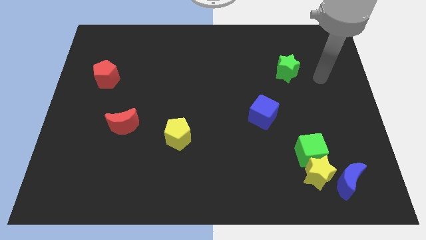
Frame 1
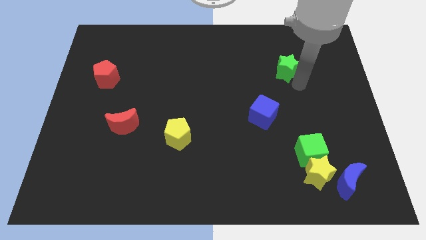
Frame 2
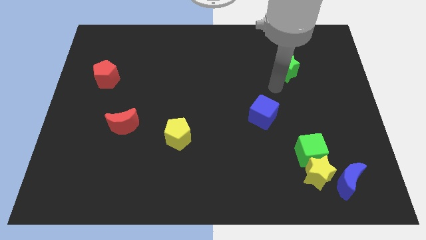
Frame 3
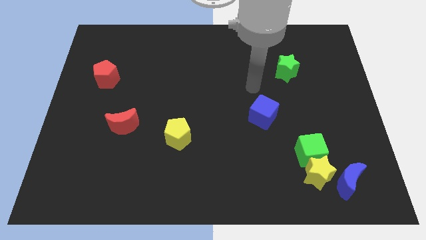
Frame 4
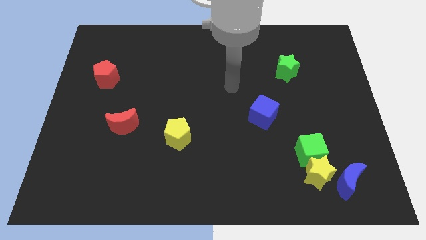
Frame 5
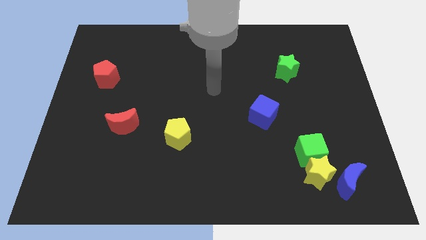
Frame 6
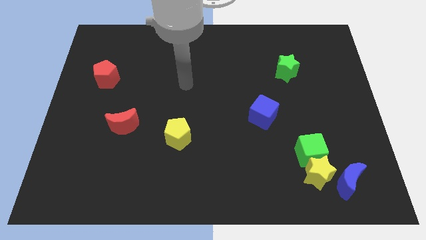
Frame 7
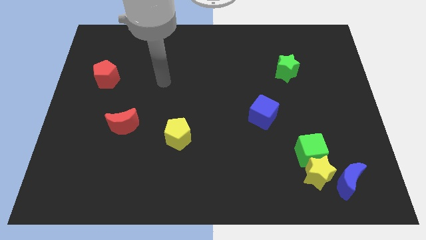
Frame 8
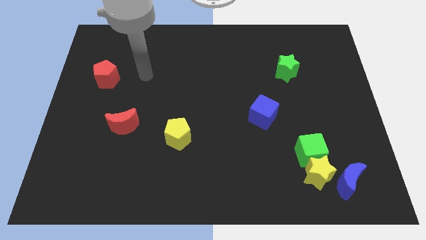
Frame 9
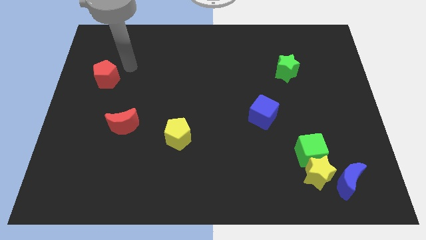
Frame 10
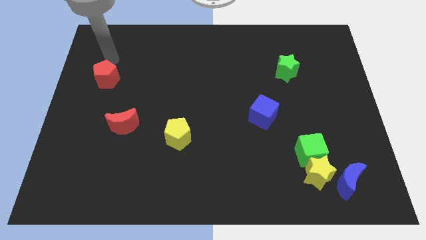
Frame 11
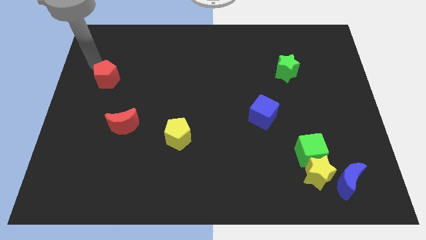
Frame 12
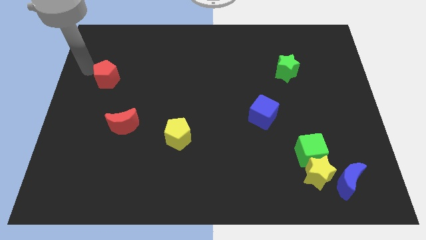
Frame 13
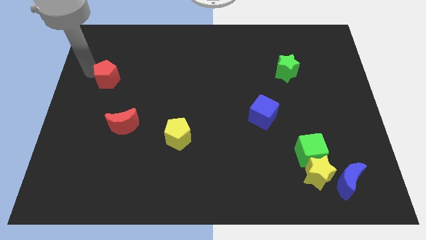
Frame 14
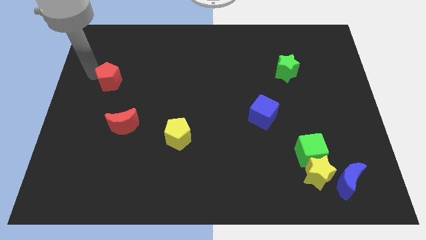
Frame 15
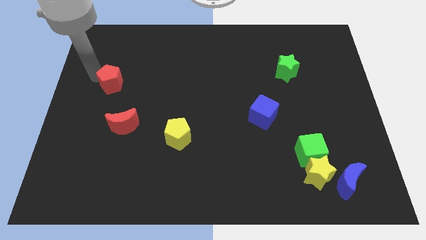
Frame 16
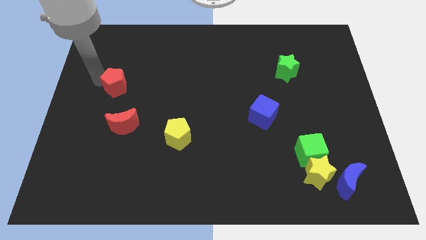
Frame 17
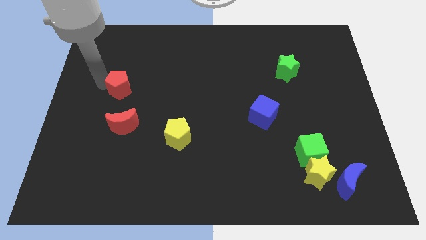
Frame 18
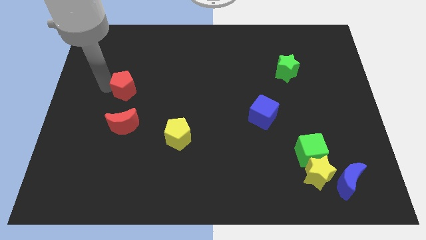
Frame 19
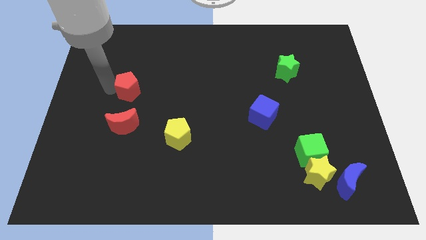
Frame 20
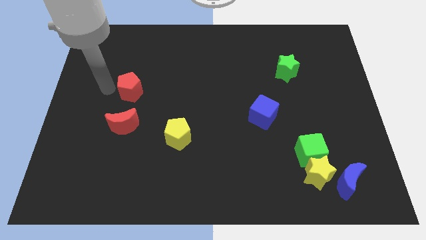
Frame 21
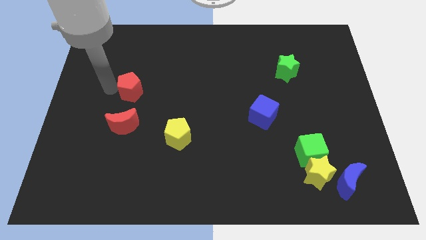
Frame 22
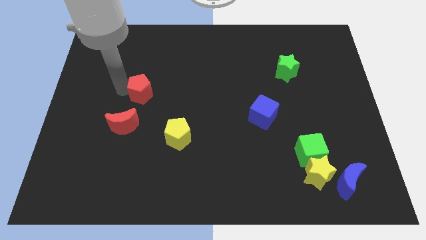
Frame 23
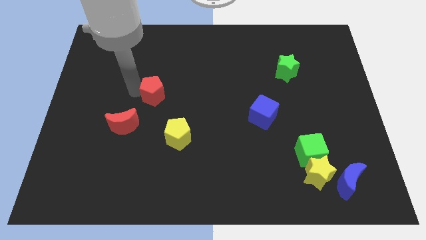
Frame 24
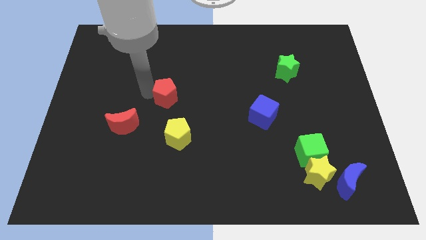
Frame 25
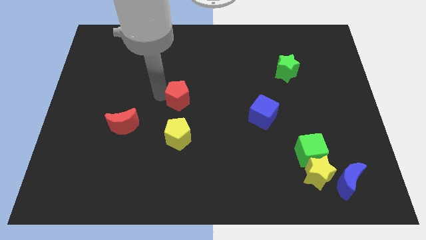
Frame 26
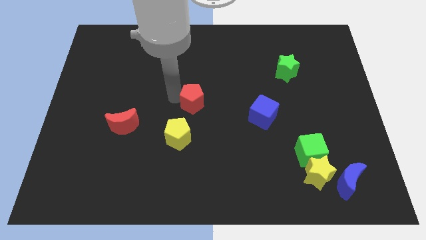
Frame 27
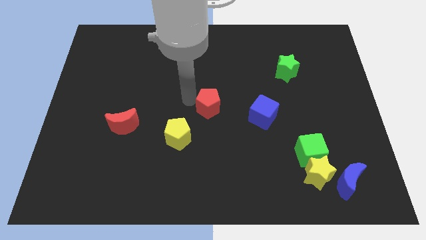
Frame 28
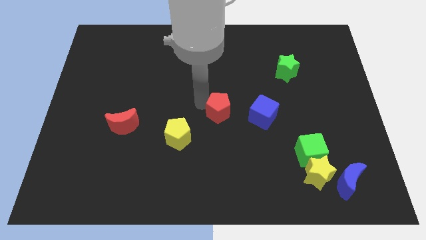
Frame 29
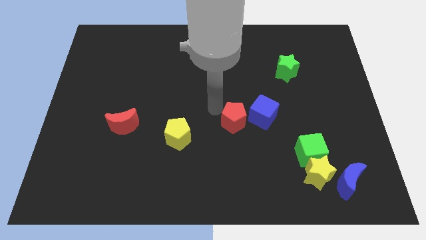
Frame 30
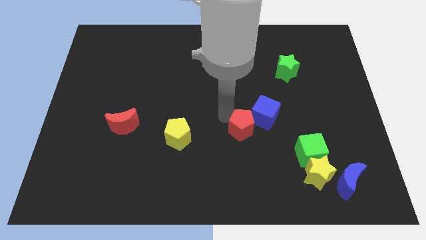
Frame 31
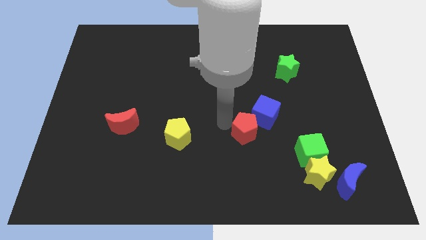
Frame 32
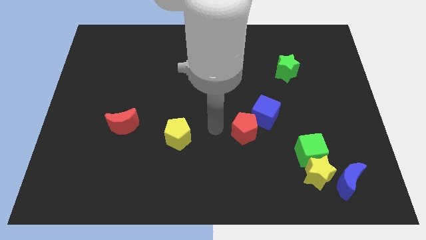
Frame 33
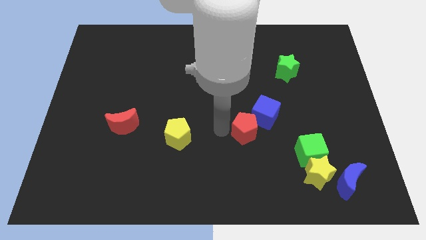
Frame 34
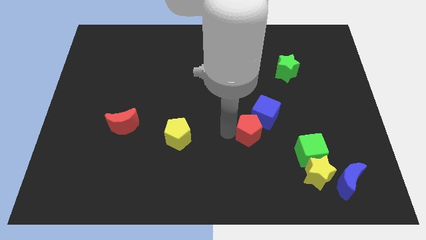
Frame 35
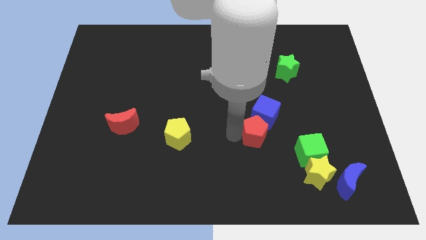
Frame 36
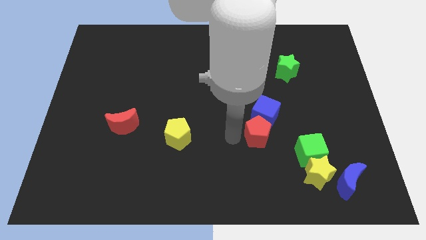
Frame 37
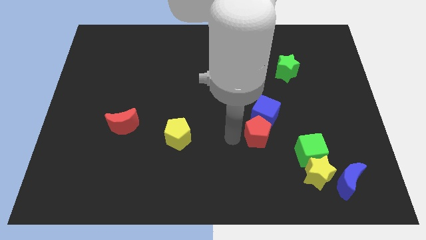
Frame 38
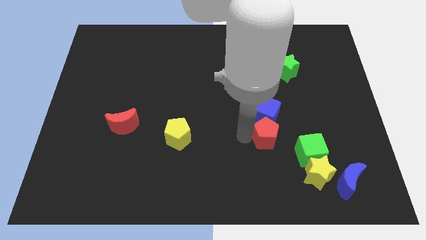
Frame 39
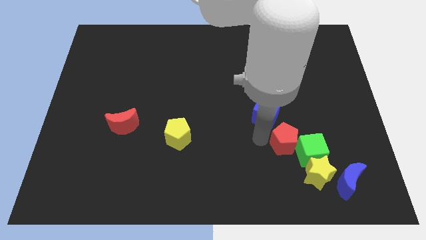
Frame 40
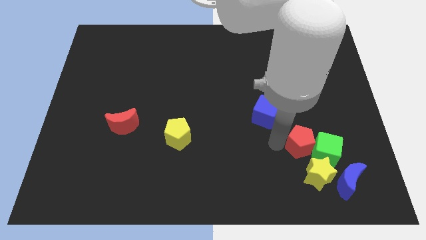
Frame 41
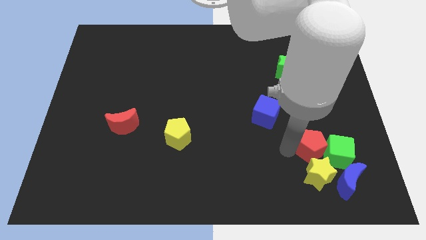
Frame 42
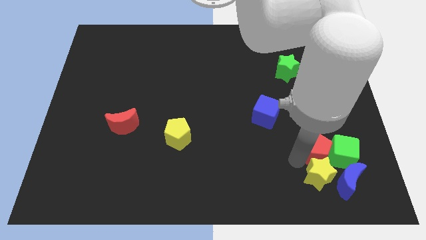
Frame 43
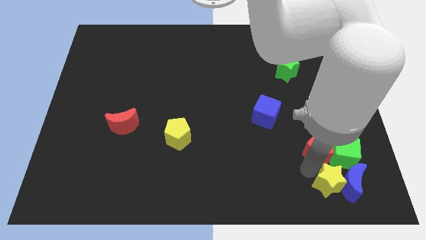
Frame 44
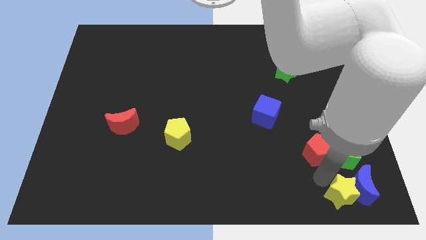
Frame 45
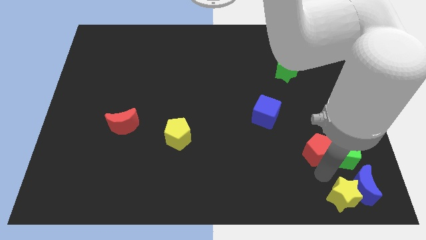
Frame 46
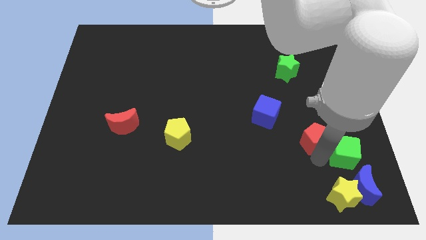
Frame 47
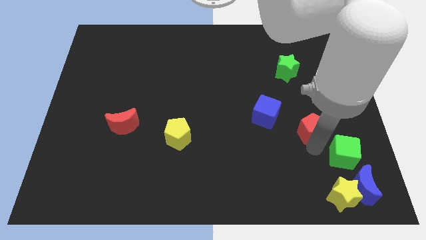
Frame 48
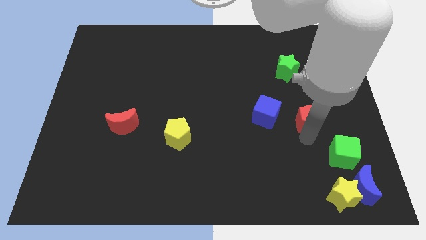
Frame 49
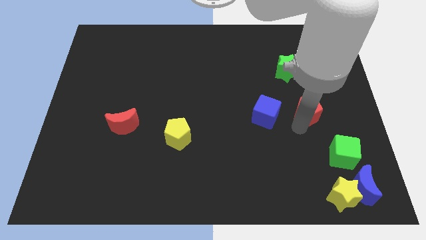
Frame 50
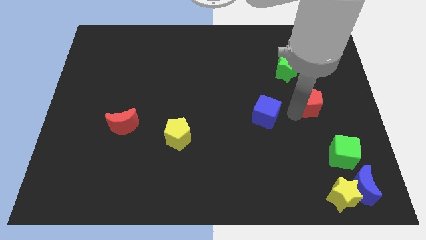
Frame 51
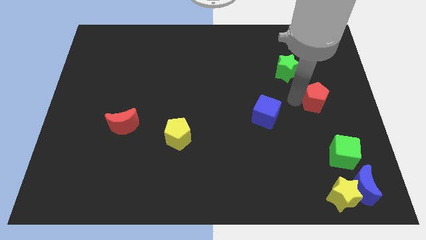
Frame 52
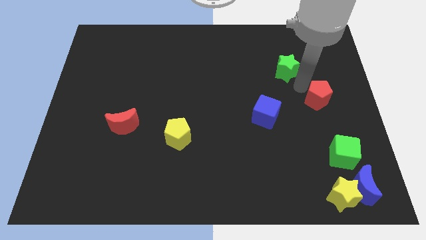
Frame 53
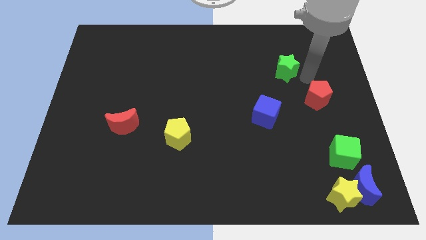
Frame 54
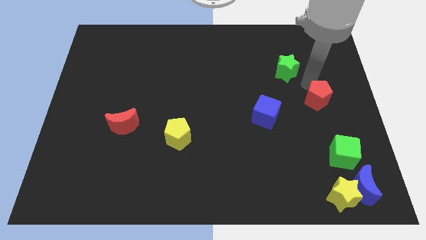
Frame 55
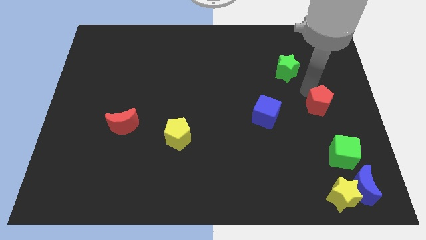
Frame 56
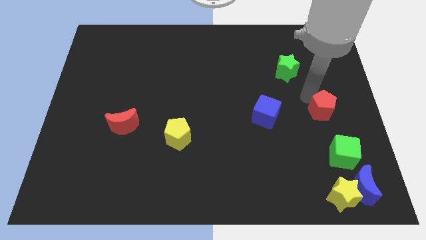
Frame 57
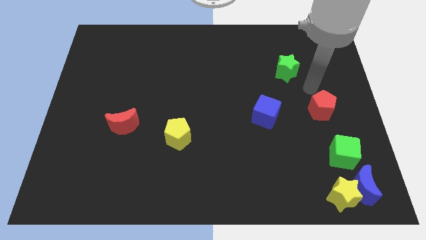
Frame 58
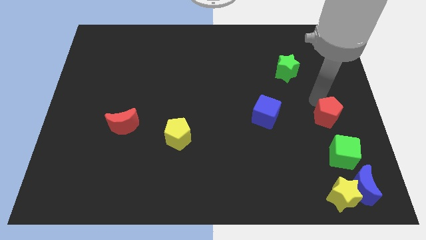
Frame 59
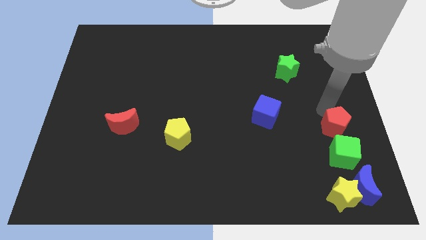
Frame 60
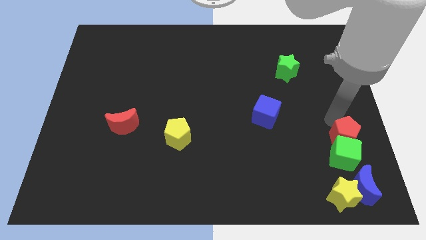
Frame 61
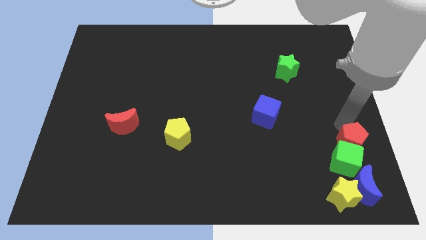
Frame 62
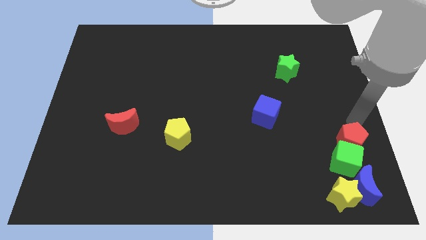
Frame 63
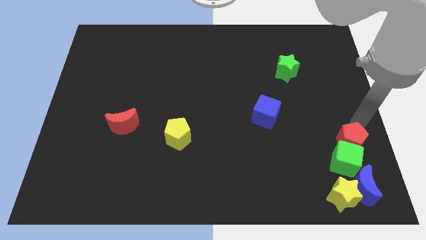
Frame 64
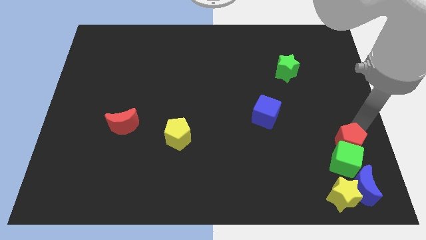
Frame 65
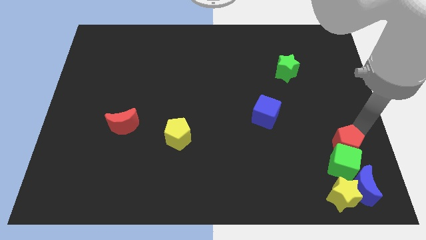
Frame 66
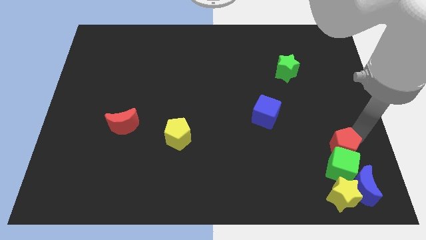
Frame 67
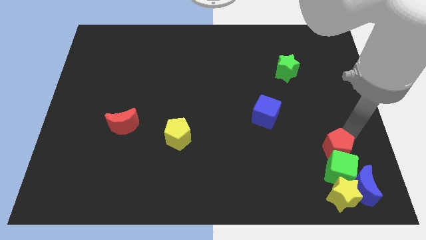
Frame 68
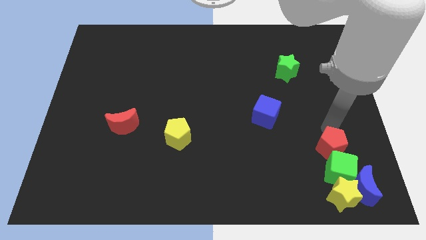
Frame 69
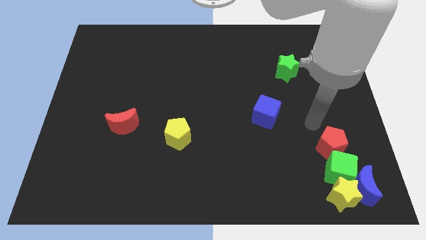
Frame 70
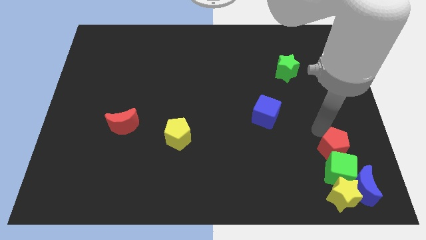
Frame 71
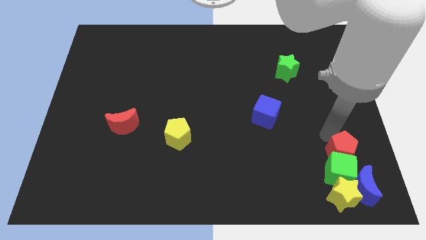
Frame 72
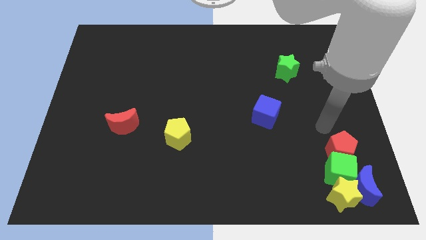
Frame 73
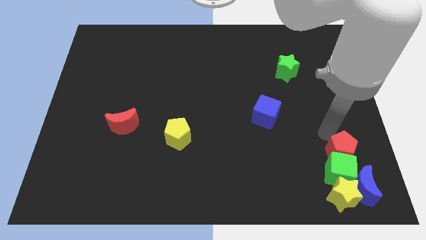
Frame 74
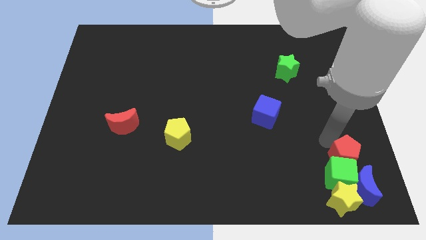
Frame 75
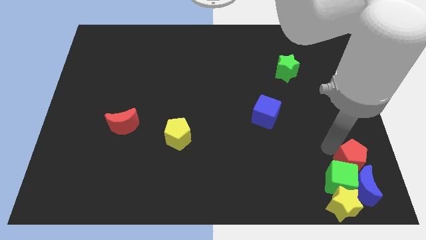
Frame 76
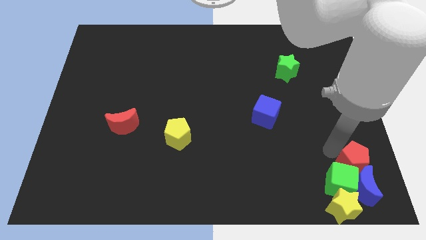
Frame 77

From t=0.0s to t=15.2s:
put the red pentagon close to the blue moon
